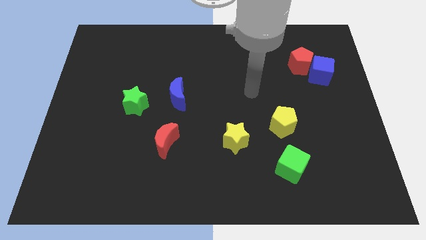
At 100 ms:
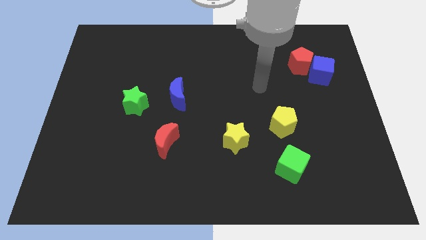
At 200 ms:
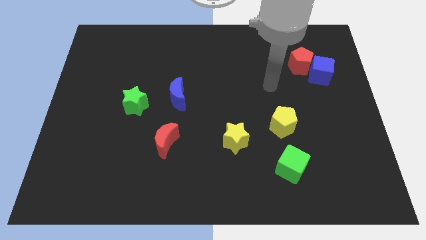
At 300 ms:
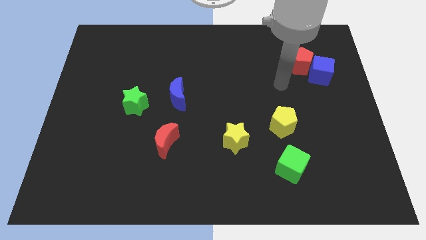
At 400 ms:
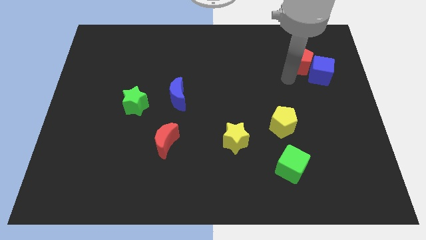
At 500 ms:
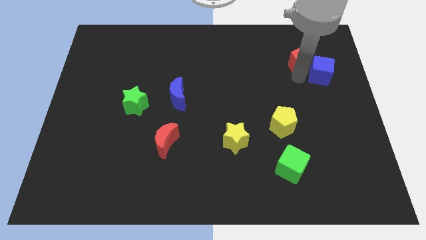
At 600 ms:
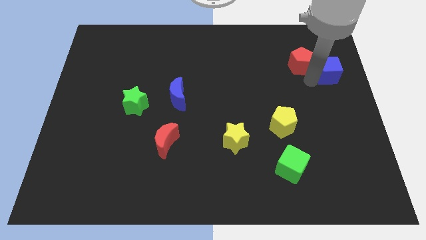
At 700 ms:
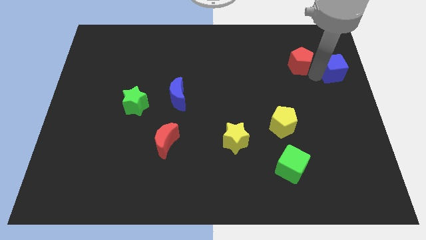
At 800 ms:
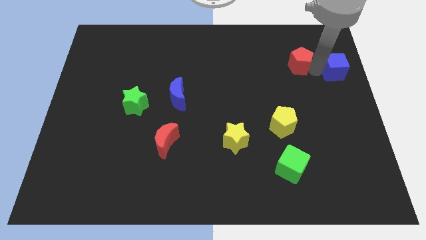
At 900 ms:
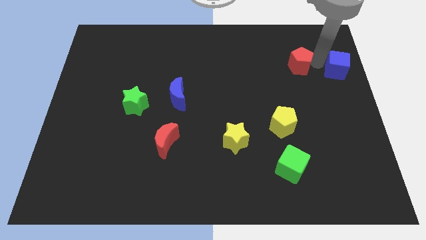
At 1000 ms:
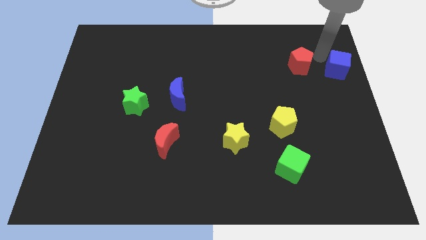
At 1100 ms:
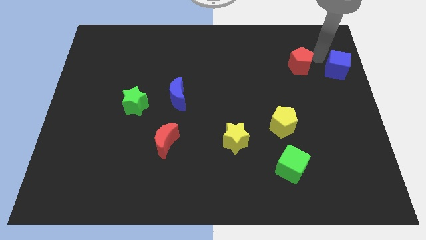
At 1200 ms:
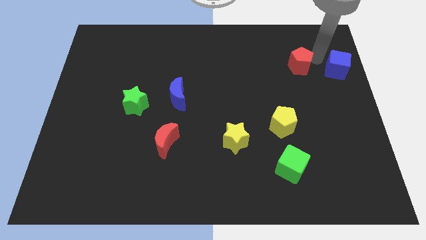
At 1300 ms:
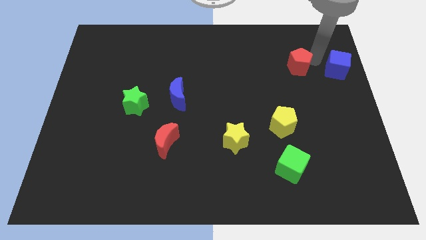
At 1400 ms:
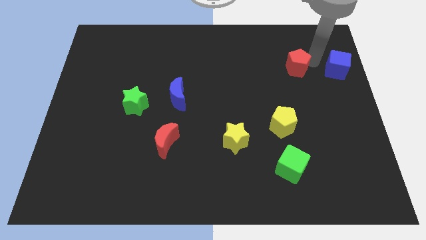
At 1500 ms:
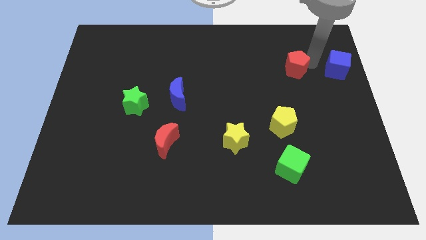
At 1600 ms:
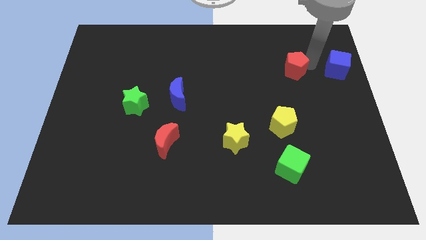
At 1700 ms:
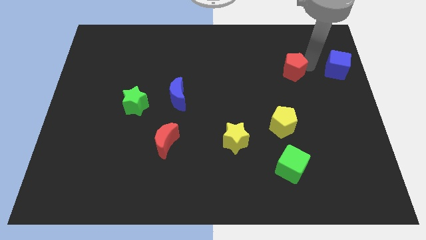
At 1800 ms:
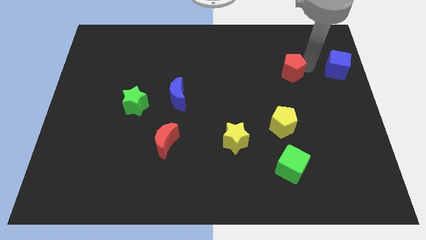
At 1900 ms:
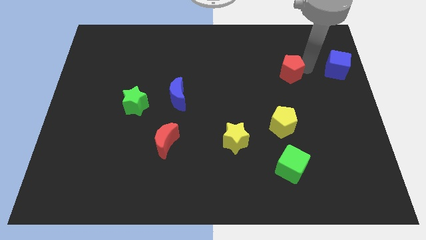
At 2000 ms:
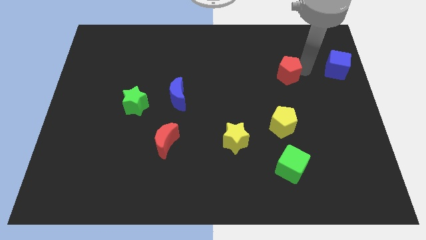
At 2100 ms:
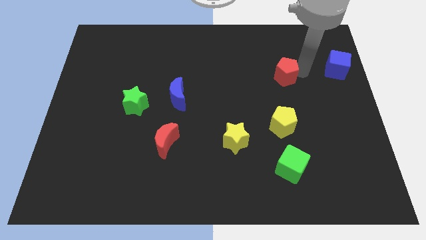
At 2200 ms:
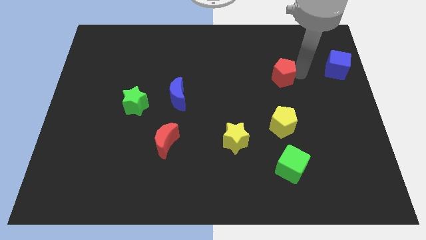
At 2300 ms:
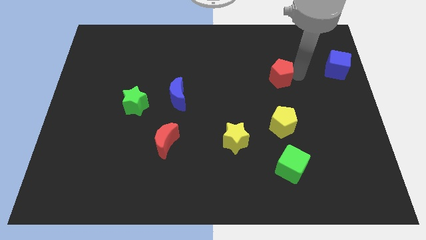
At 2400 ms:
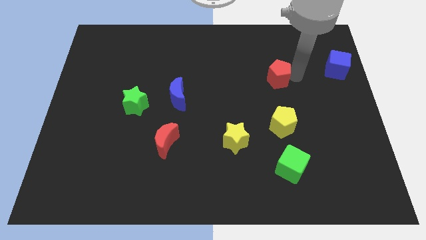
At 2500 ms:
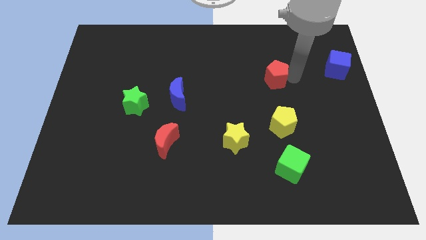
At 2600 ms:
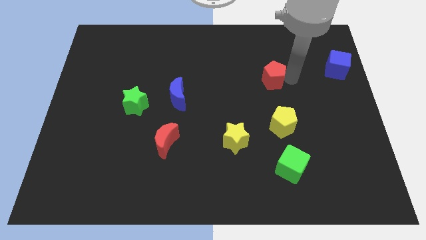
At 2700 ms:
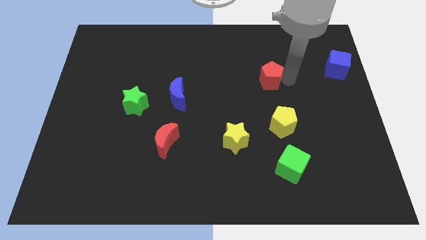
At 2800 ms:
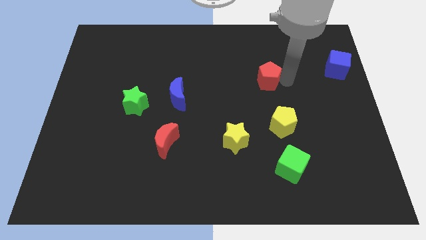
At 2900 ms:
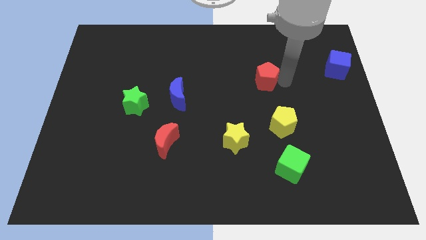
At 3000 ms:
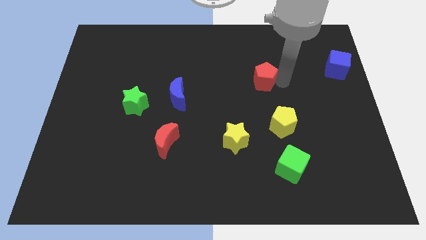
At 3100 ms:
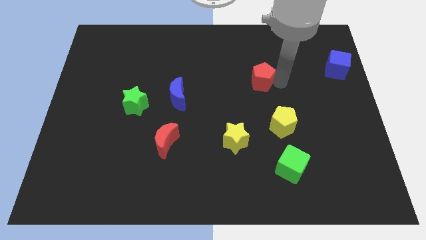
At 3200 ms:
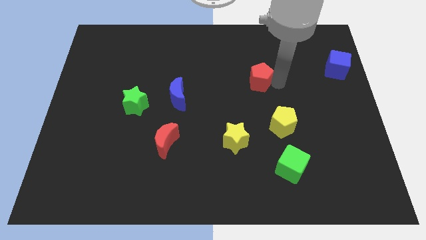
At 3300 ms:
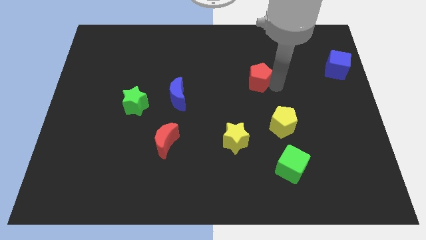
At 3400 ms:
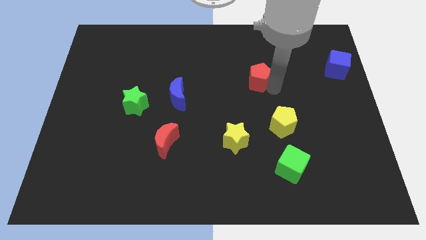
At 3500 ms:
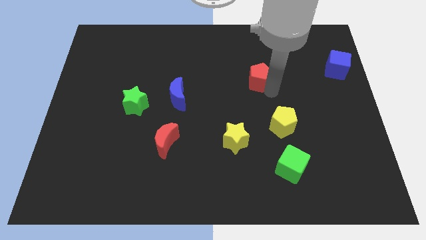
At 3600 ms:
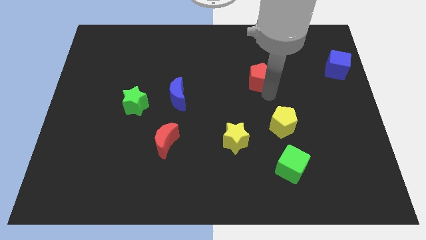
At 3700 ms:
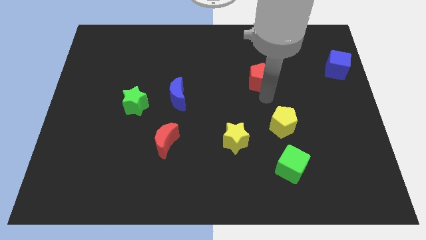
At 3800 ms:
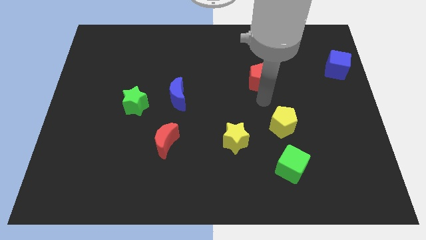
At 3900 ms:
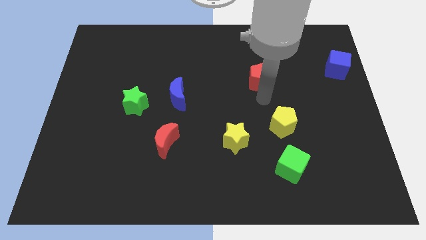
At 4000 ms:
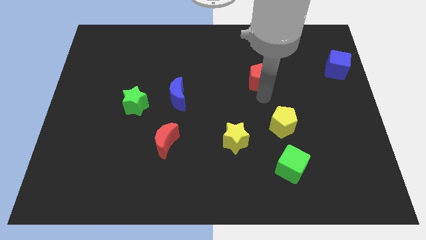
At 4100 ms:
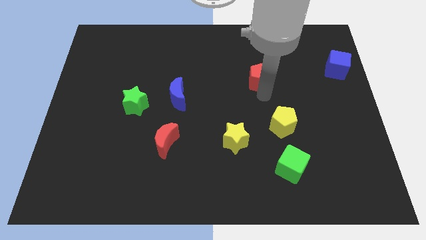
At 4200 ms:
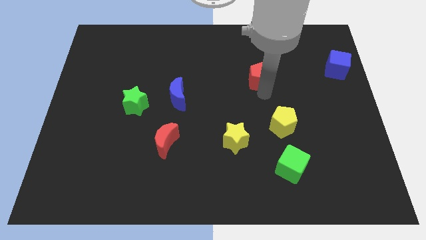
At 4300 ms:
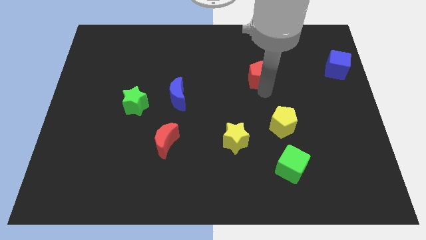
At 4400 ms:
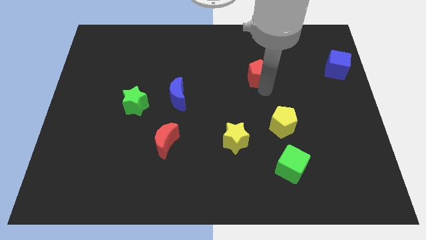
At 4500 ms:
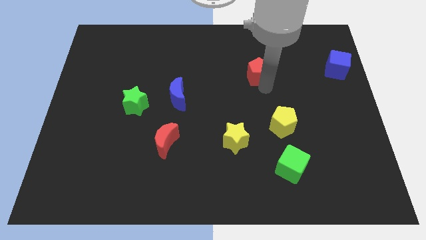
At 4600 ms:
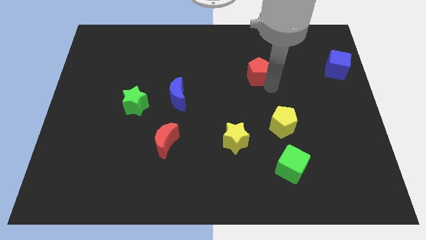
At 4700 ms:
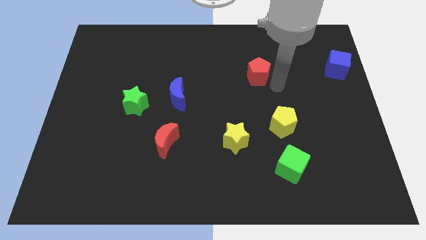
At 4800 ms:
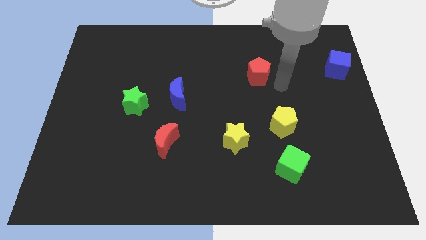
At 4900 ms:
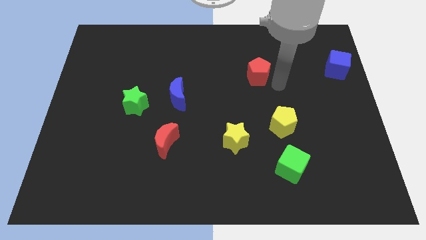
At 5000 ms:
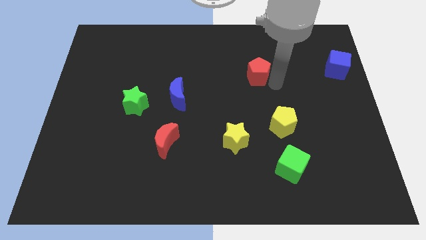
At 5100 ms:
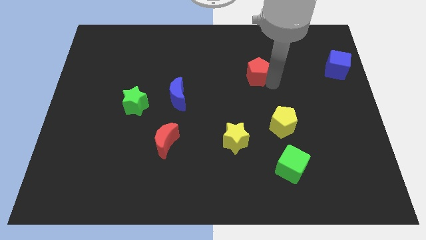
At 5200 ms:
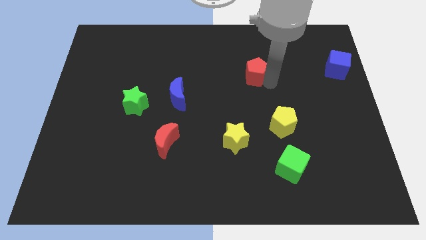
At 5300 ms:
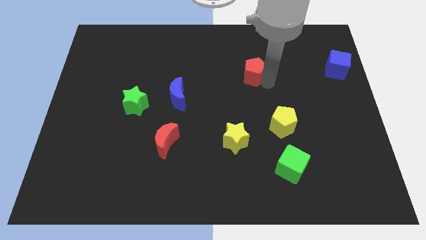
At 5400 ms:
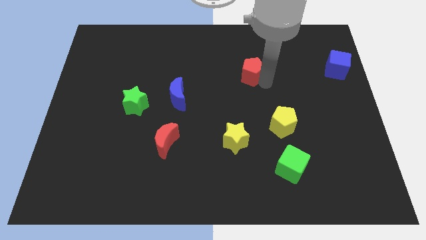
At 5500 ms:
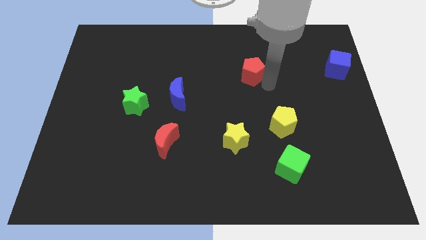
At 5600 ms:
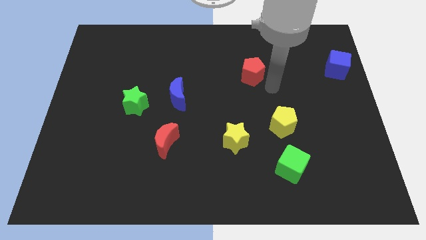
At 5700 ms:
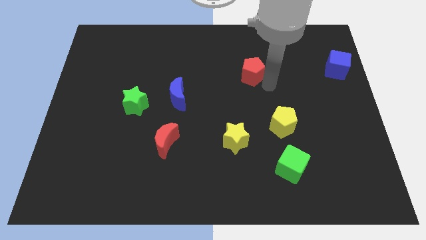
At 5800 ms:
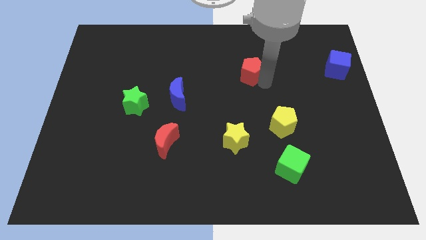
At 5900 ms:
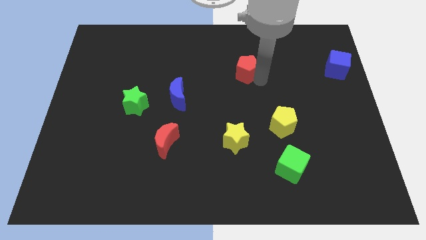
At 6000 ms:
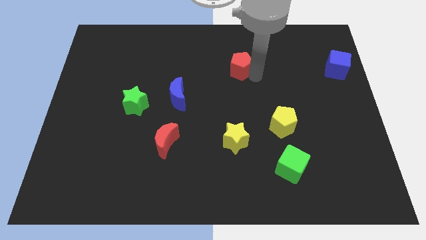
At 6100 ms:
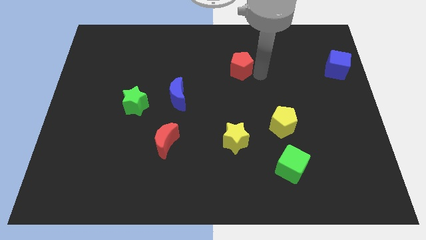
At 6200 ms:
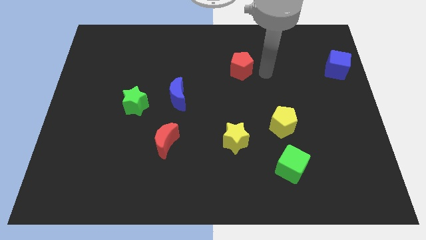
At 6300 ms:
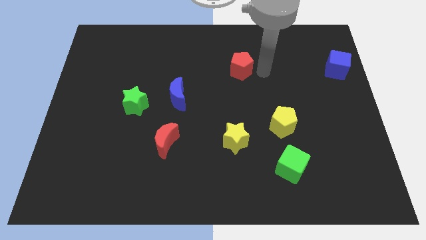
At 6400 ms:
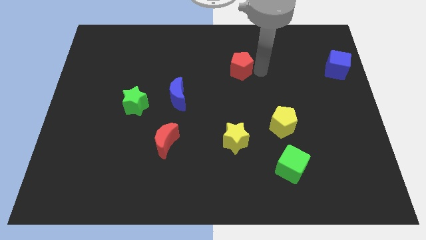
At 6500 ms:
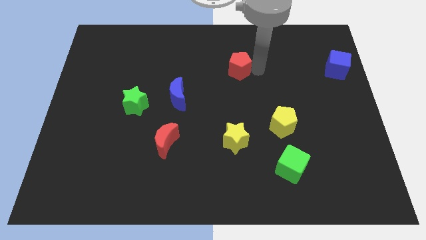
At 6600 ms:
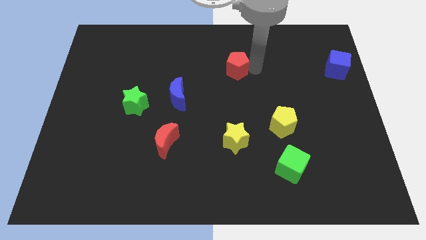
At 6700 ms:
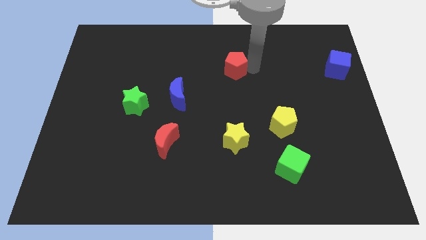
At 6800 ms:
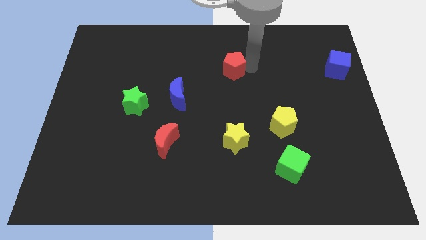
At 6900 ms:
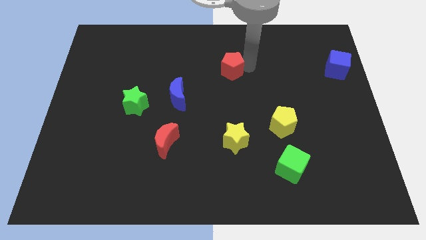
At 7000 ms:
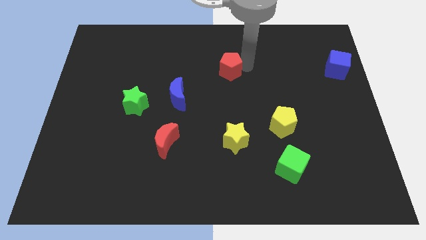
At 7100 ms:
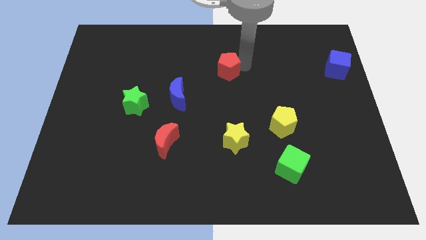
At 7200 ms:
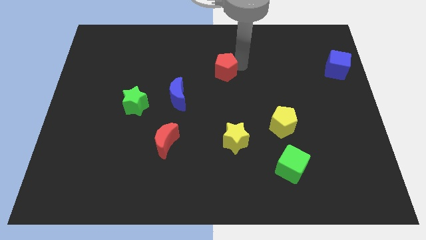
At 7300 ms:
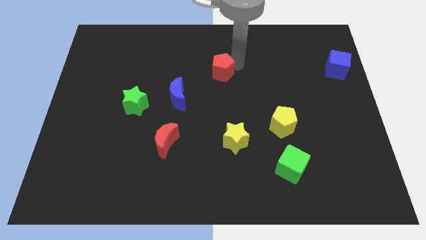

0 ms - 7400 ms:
move the red pentagon left

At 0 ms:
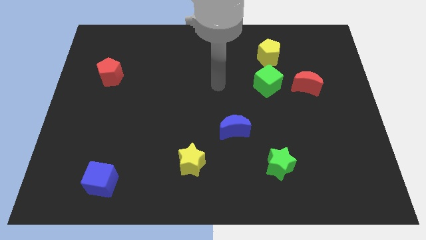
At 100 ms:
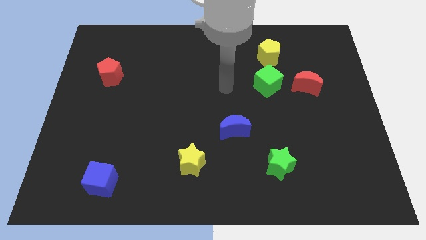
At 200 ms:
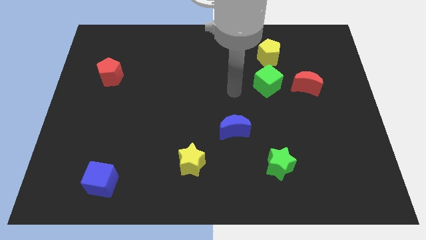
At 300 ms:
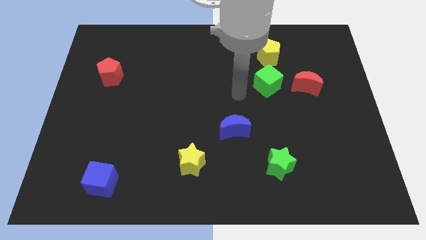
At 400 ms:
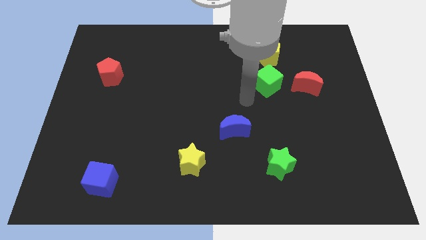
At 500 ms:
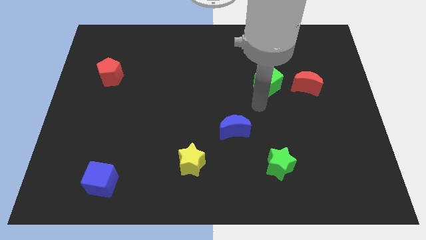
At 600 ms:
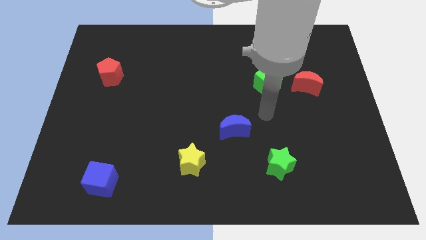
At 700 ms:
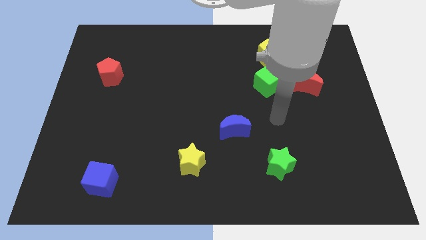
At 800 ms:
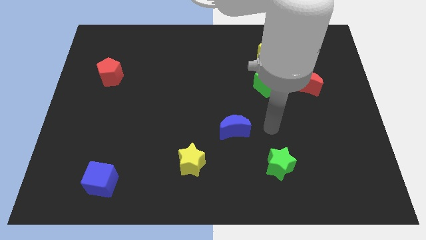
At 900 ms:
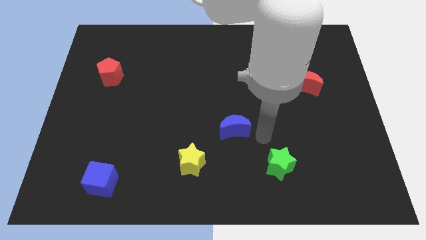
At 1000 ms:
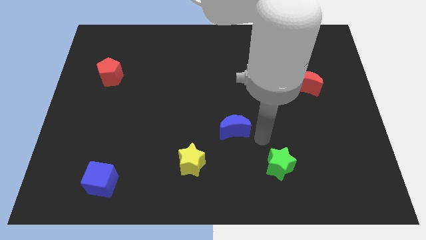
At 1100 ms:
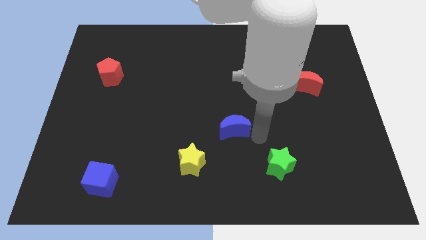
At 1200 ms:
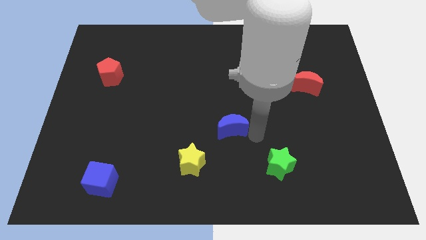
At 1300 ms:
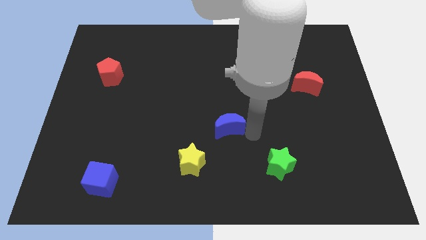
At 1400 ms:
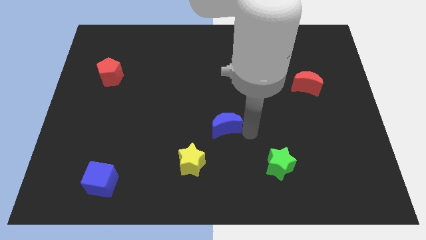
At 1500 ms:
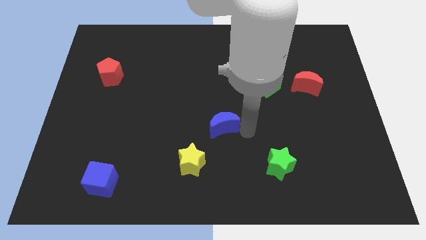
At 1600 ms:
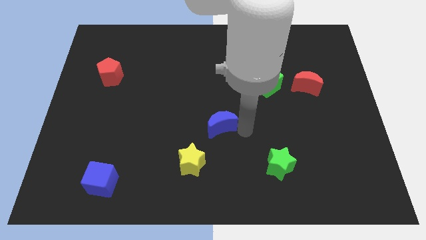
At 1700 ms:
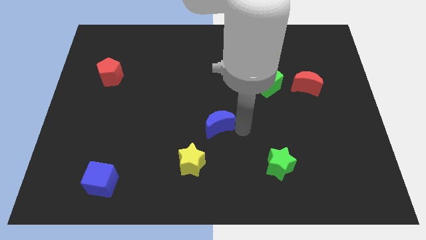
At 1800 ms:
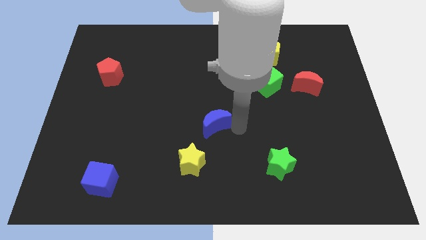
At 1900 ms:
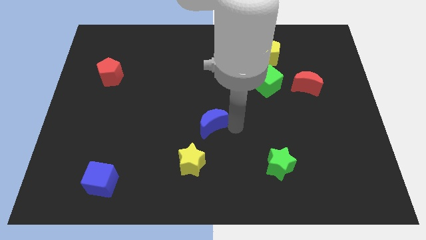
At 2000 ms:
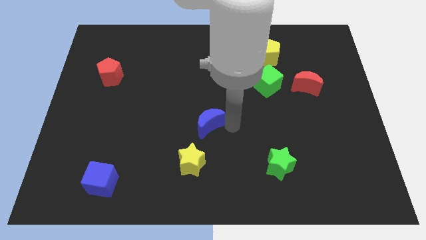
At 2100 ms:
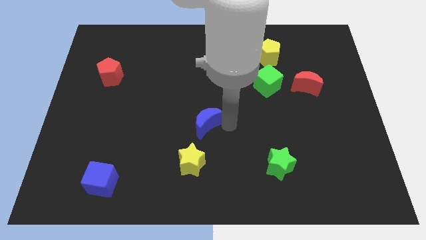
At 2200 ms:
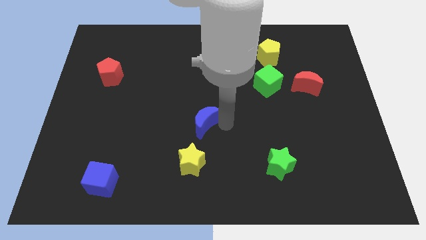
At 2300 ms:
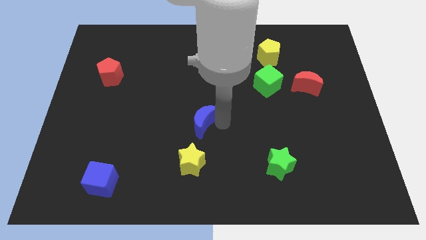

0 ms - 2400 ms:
move the blue moon a bit to the left
